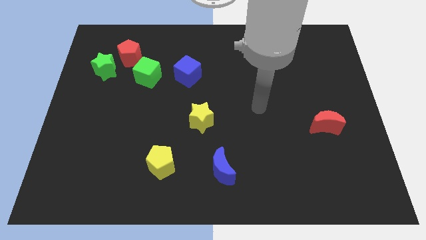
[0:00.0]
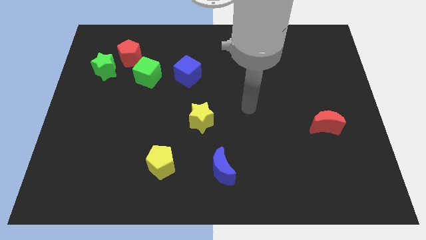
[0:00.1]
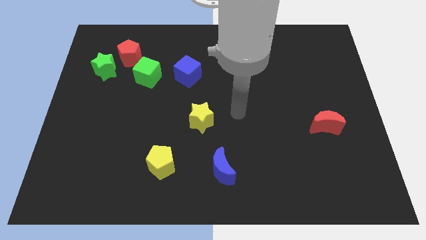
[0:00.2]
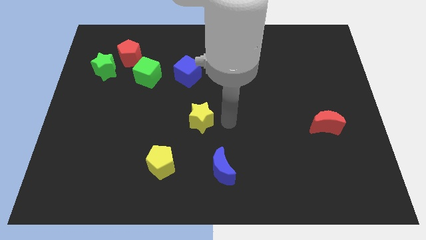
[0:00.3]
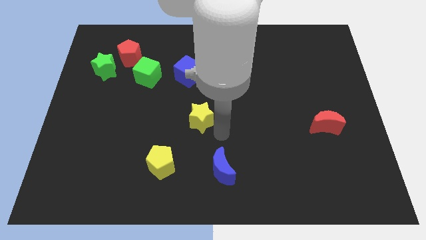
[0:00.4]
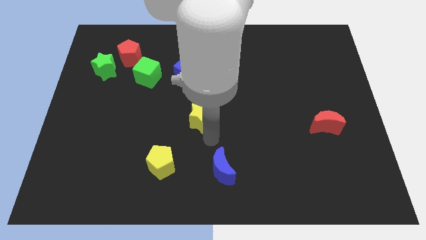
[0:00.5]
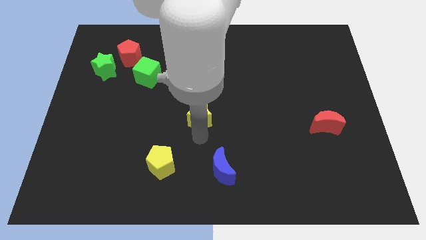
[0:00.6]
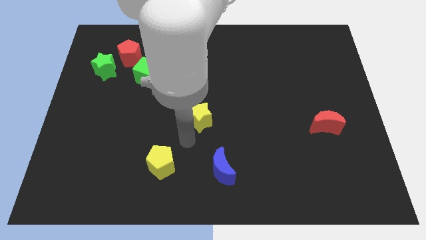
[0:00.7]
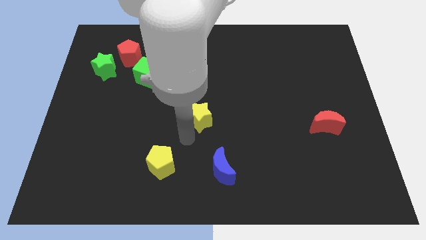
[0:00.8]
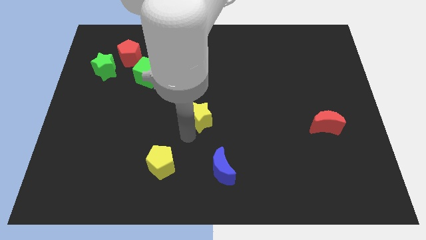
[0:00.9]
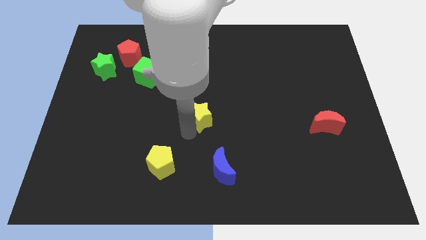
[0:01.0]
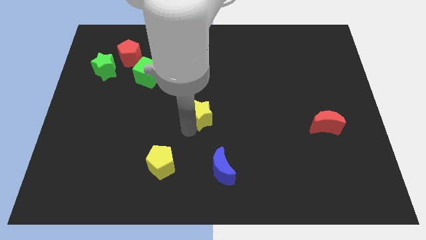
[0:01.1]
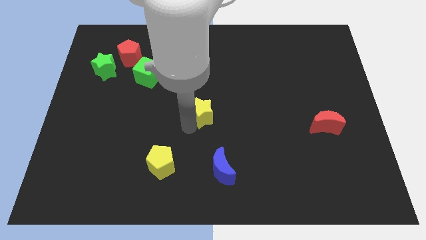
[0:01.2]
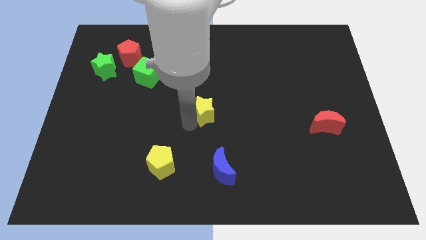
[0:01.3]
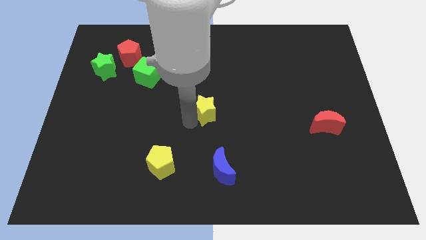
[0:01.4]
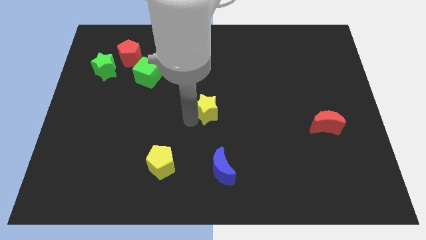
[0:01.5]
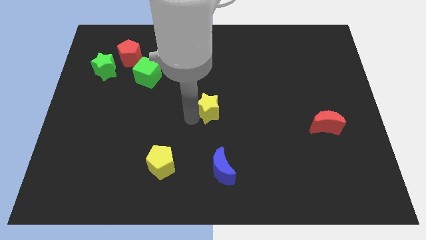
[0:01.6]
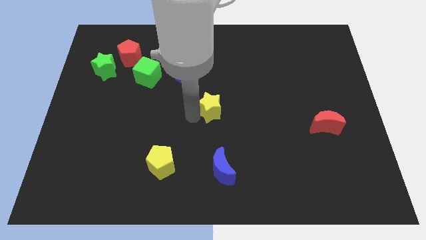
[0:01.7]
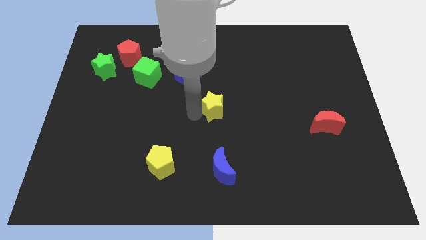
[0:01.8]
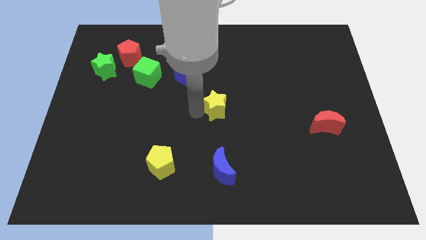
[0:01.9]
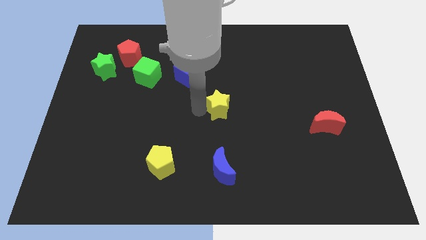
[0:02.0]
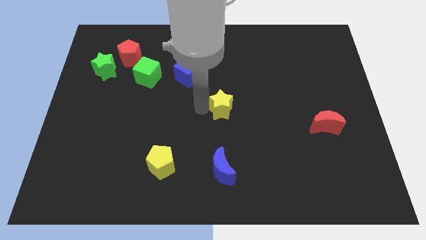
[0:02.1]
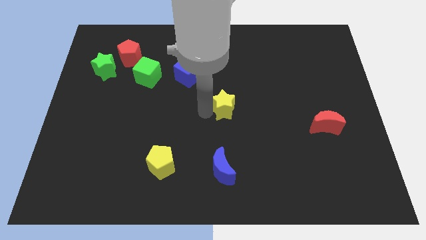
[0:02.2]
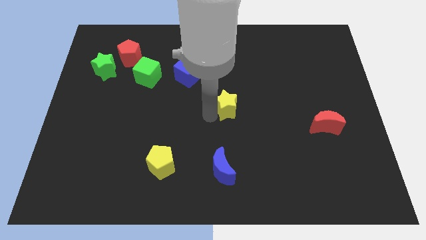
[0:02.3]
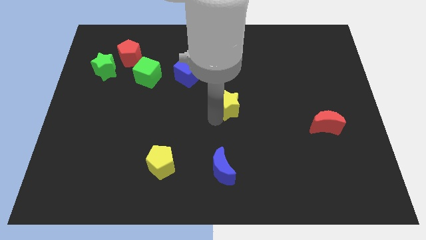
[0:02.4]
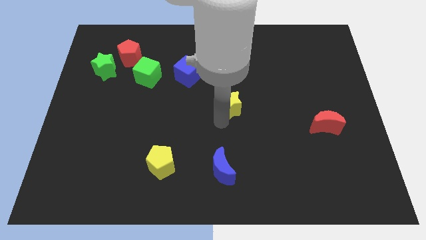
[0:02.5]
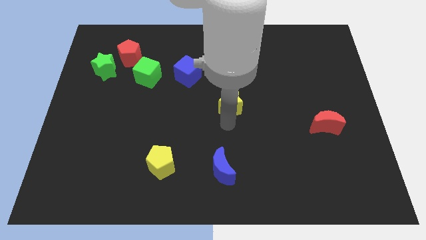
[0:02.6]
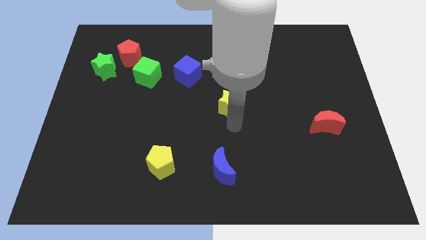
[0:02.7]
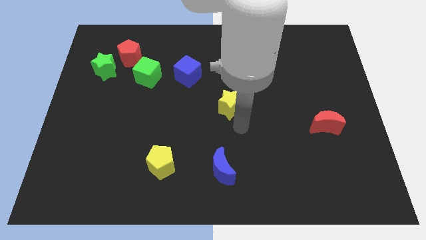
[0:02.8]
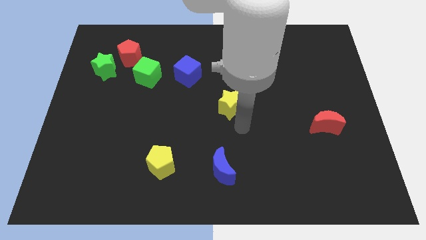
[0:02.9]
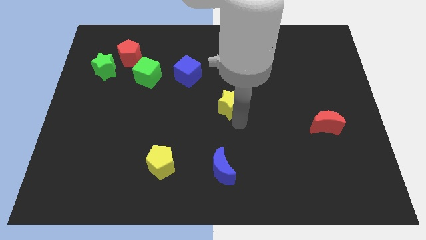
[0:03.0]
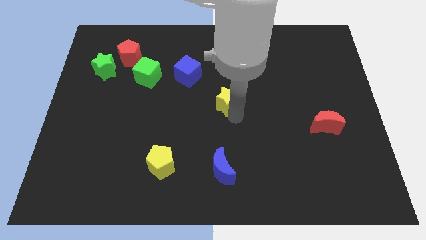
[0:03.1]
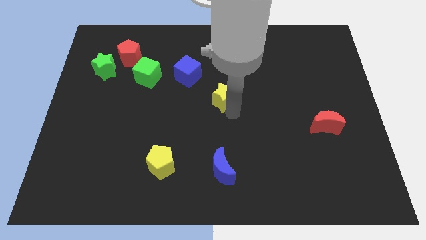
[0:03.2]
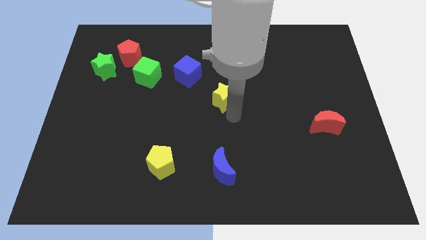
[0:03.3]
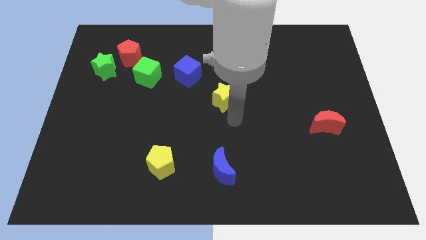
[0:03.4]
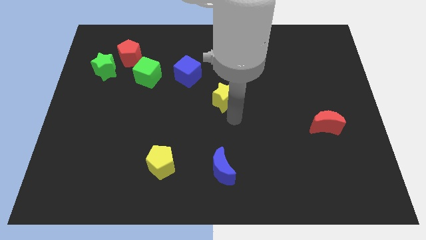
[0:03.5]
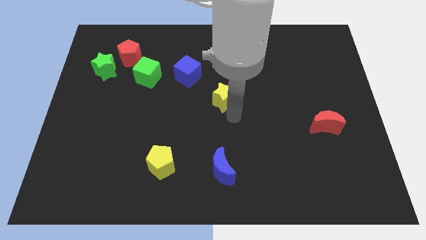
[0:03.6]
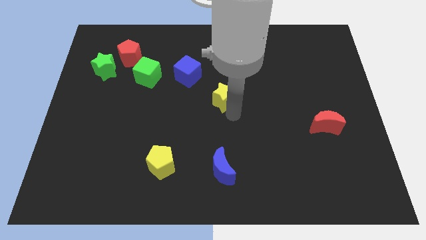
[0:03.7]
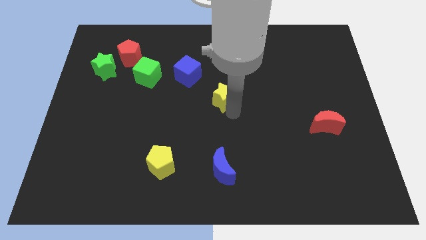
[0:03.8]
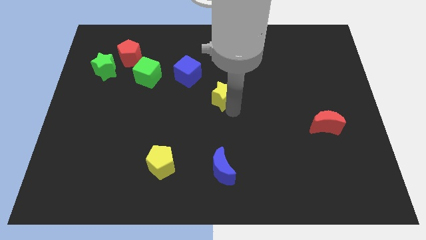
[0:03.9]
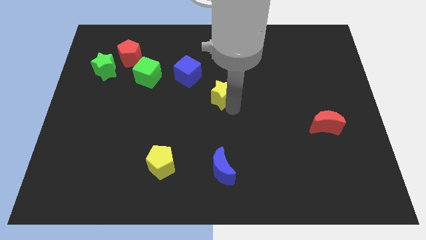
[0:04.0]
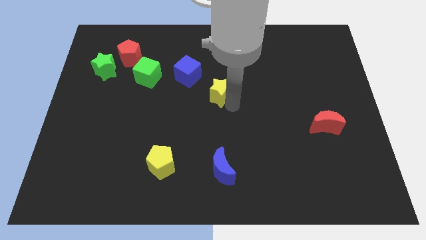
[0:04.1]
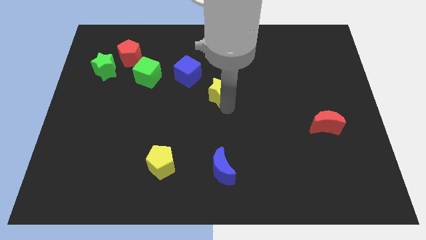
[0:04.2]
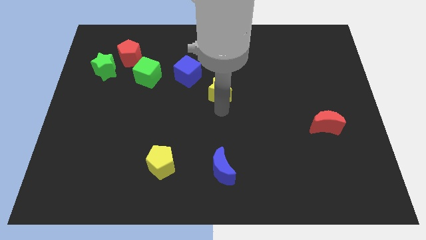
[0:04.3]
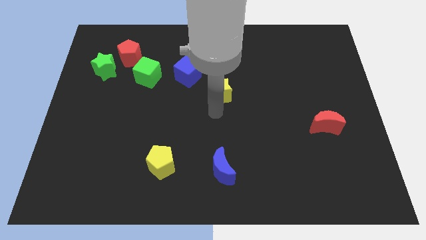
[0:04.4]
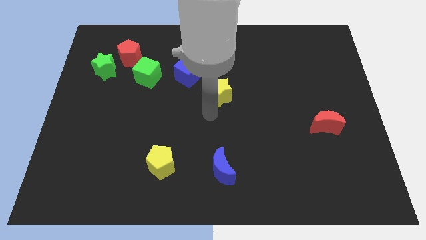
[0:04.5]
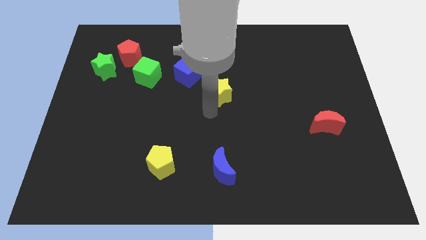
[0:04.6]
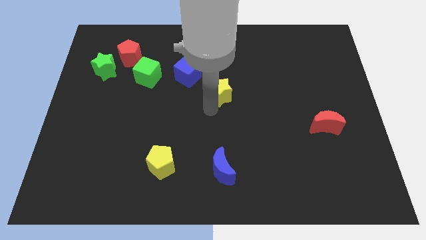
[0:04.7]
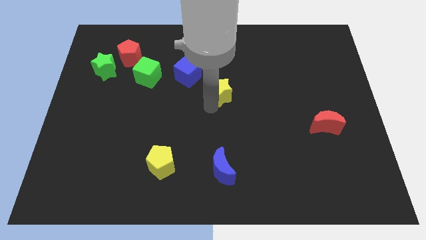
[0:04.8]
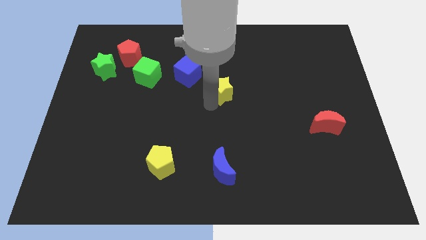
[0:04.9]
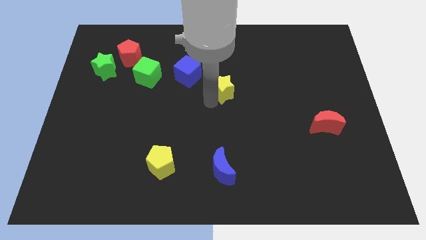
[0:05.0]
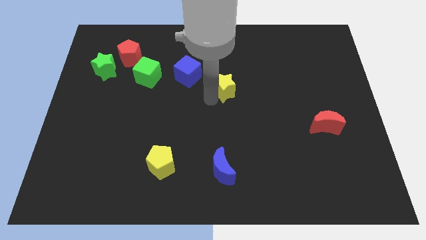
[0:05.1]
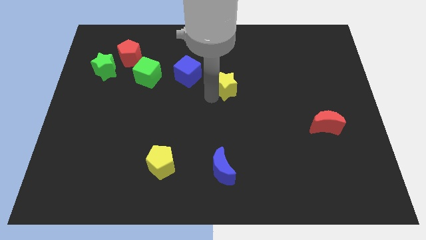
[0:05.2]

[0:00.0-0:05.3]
push the yellow star just right of the blue cube

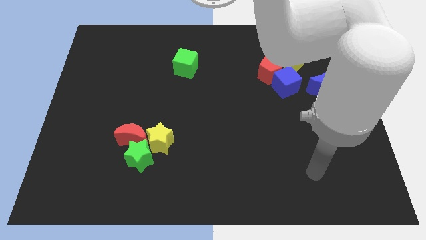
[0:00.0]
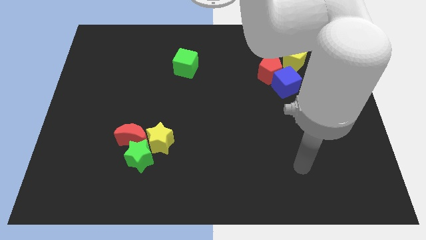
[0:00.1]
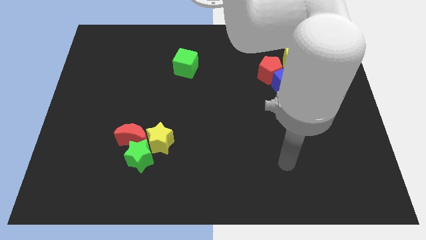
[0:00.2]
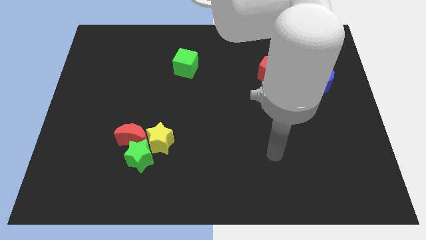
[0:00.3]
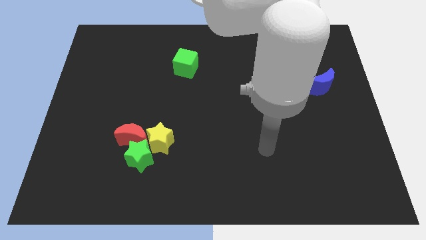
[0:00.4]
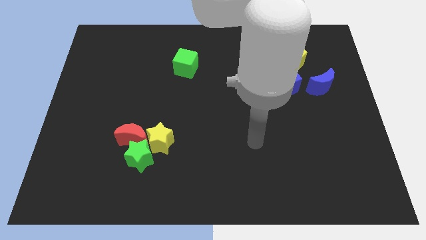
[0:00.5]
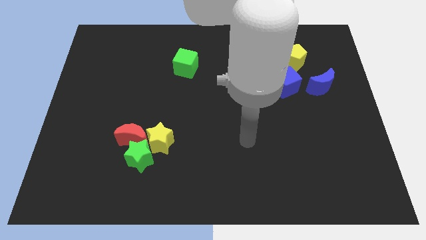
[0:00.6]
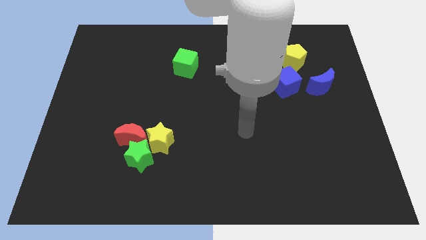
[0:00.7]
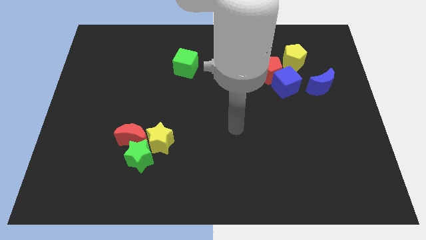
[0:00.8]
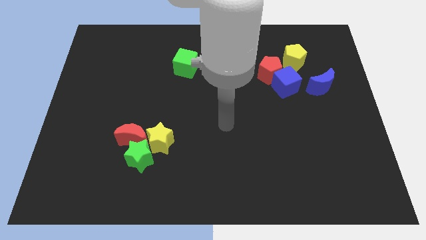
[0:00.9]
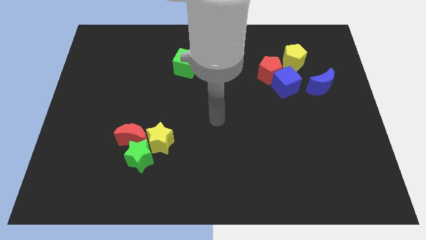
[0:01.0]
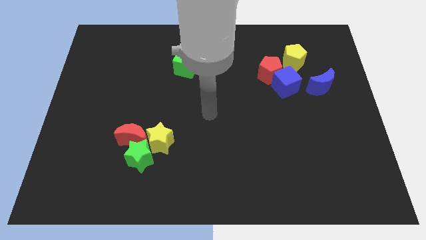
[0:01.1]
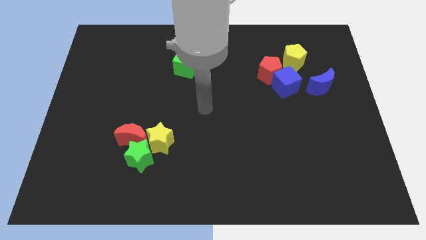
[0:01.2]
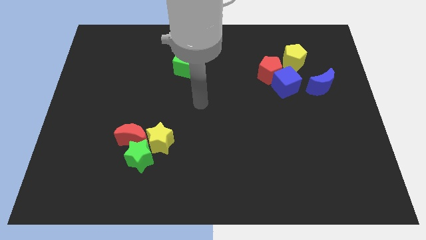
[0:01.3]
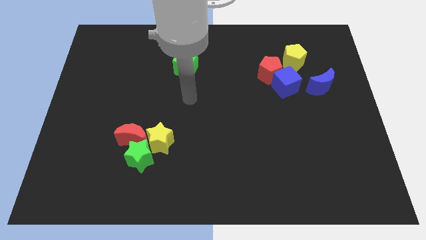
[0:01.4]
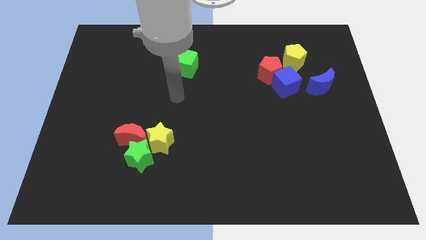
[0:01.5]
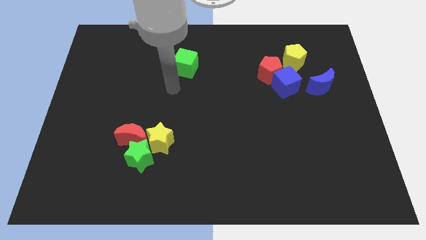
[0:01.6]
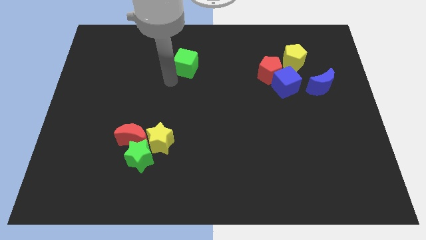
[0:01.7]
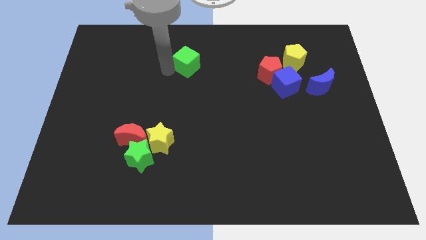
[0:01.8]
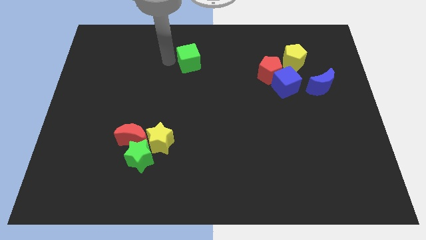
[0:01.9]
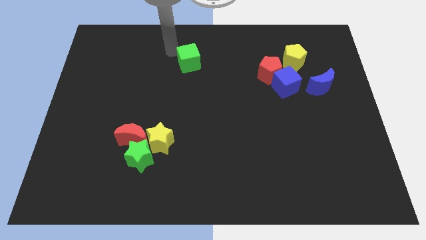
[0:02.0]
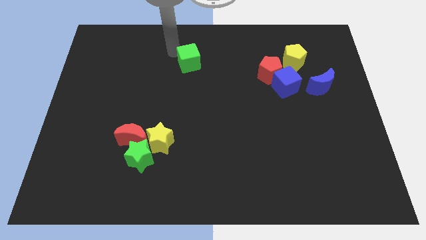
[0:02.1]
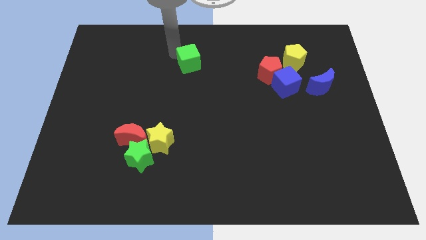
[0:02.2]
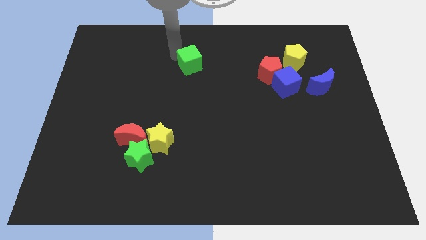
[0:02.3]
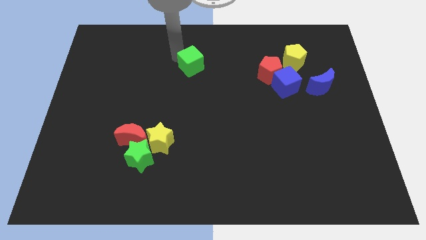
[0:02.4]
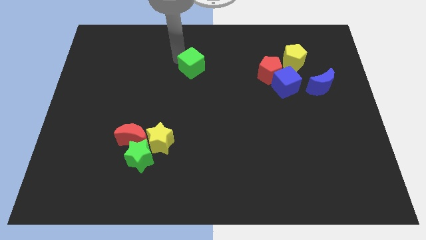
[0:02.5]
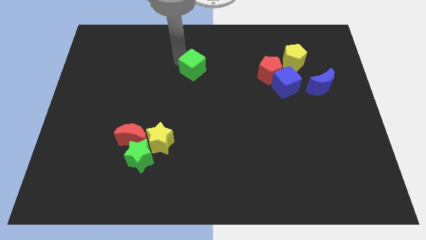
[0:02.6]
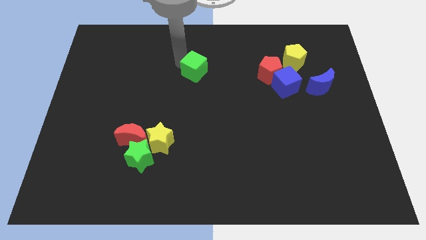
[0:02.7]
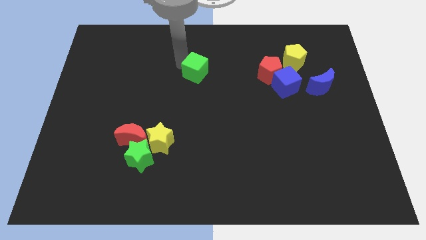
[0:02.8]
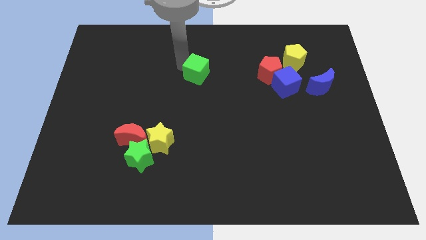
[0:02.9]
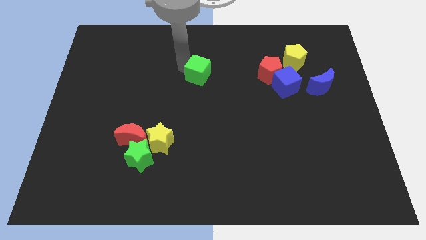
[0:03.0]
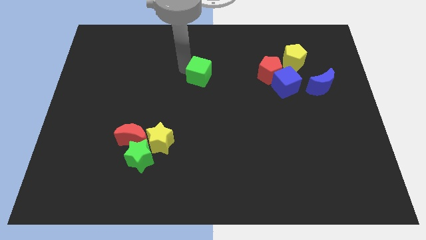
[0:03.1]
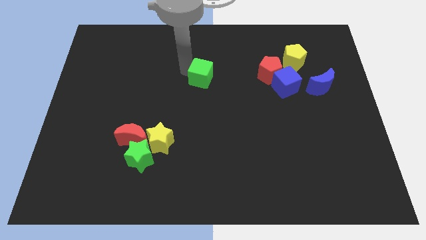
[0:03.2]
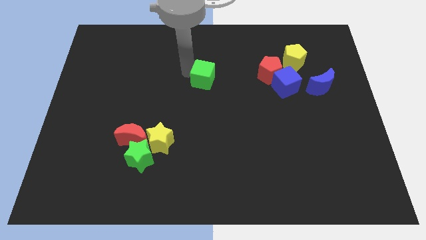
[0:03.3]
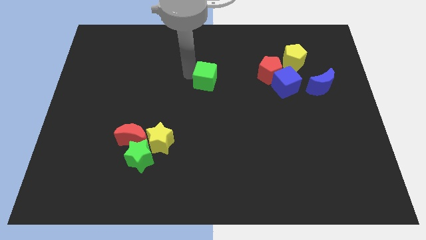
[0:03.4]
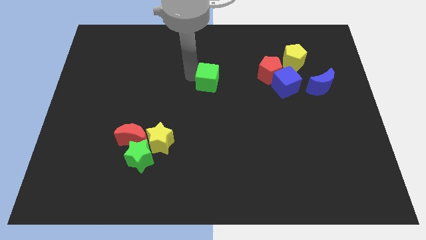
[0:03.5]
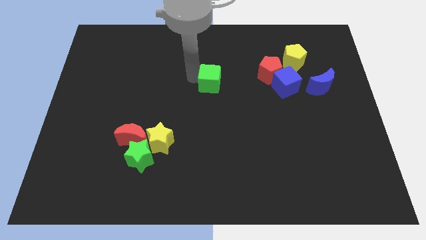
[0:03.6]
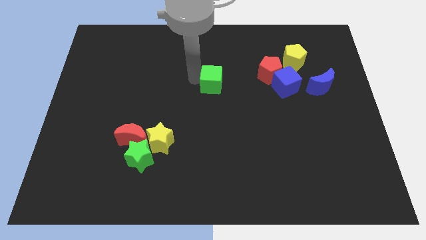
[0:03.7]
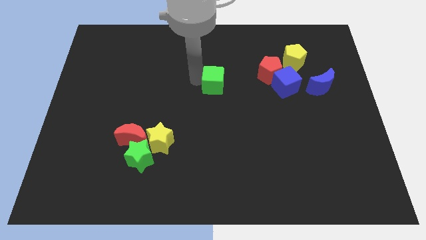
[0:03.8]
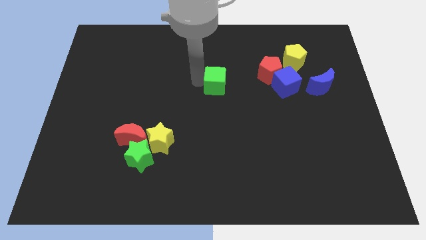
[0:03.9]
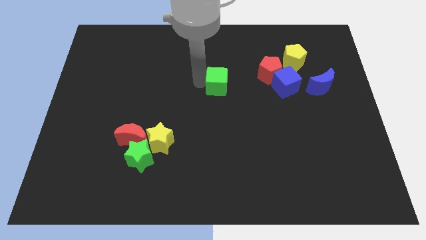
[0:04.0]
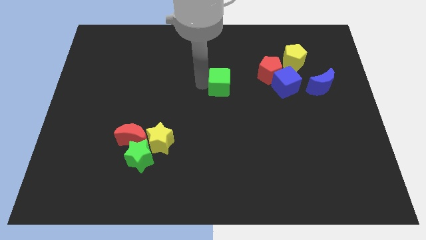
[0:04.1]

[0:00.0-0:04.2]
move the green cube left of the blue cube
